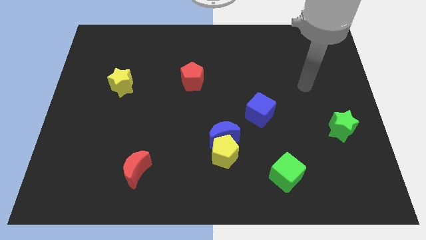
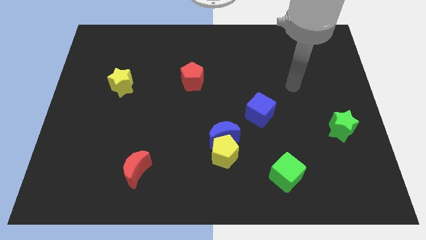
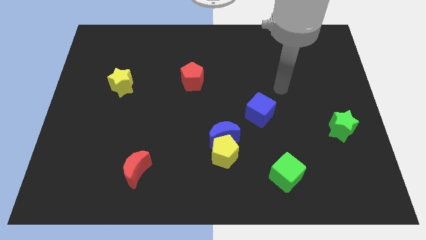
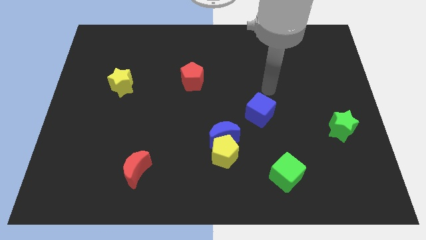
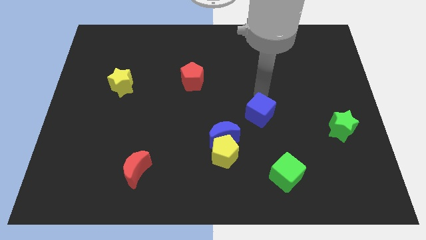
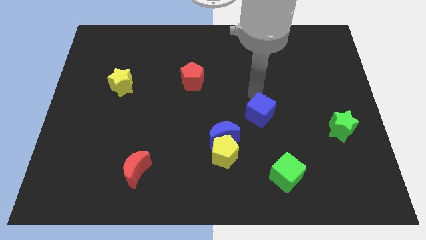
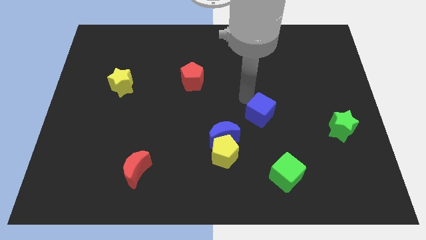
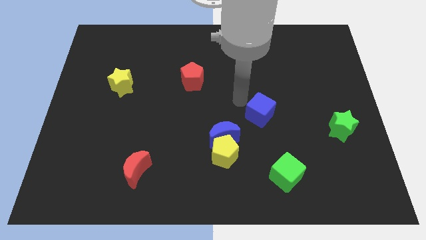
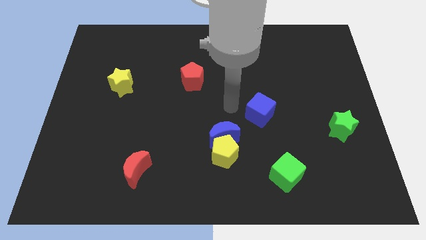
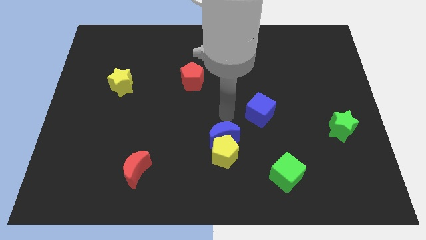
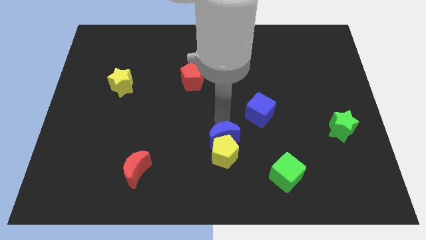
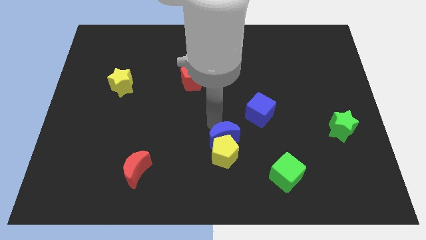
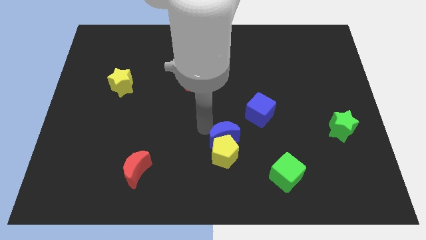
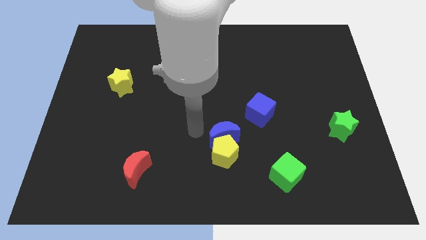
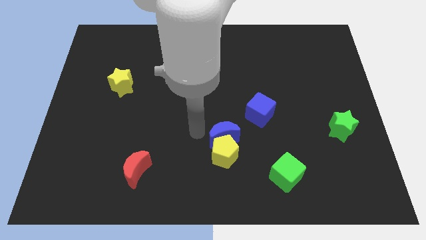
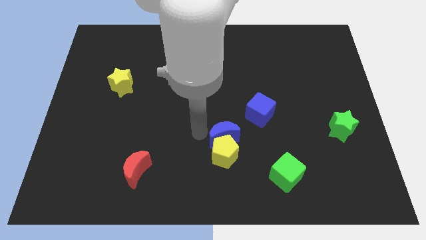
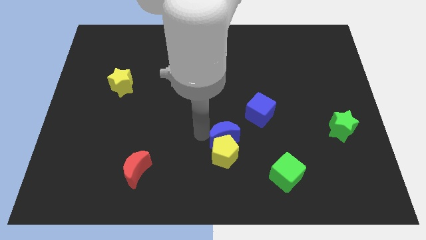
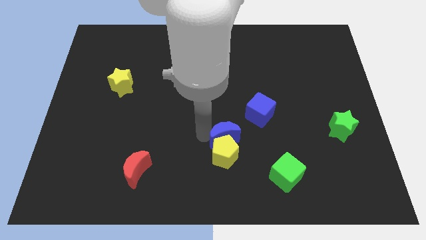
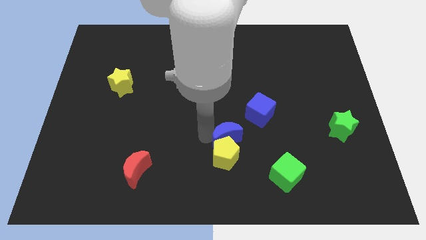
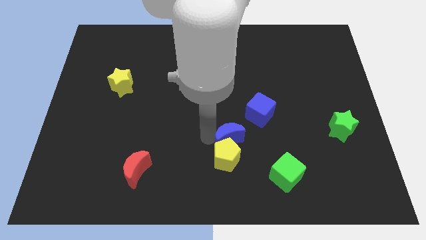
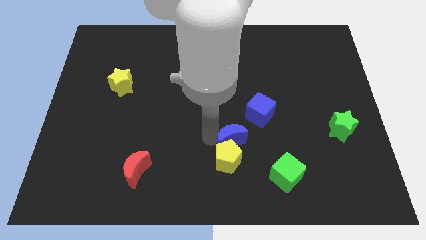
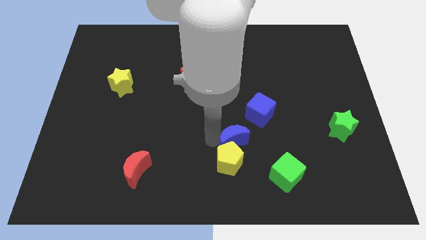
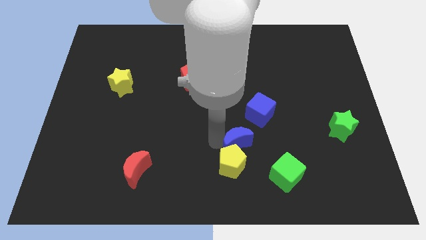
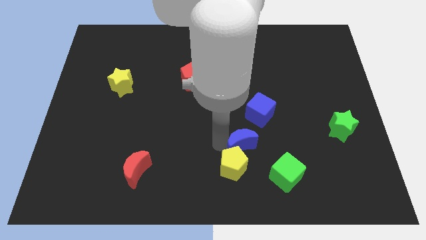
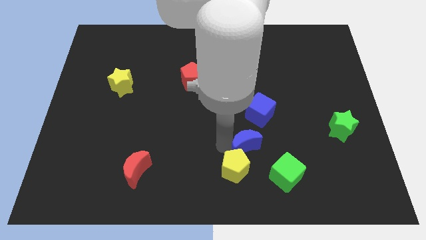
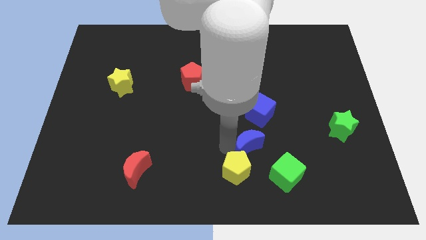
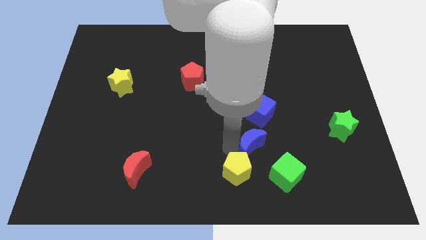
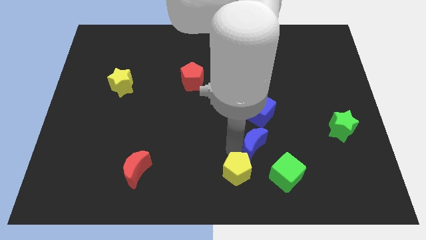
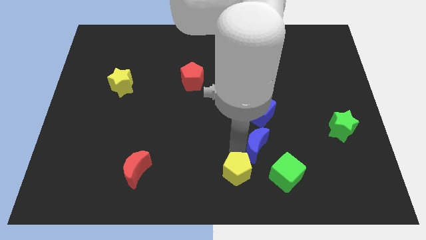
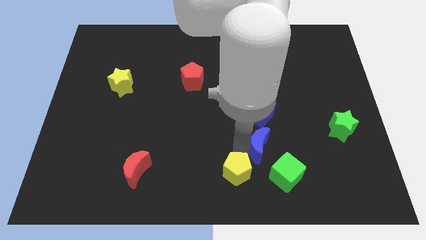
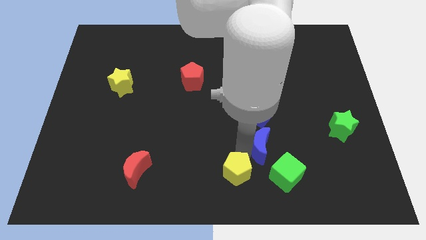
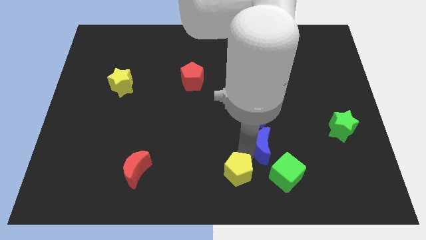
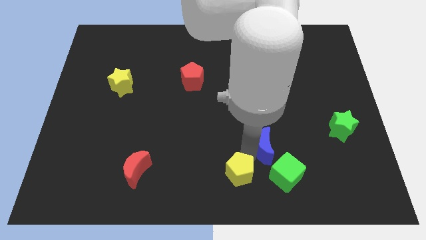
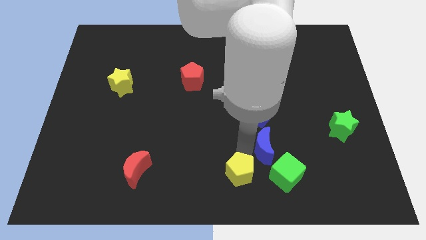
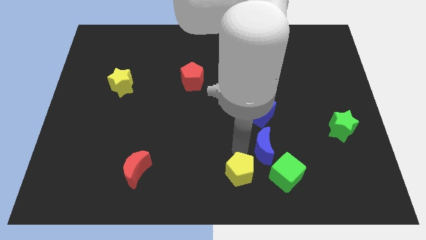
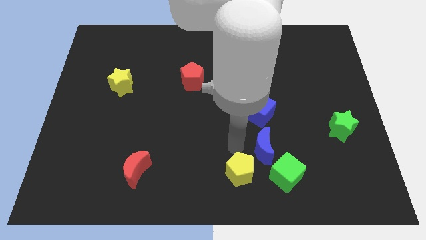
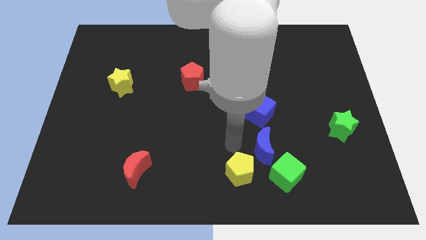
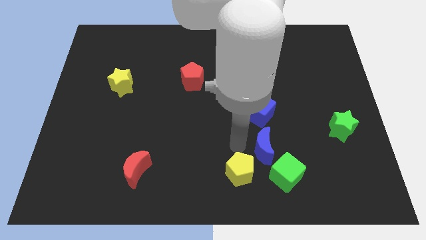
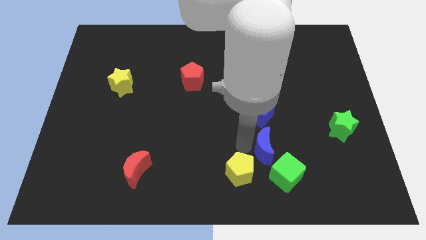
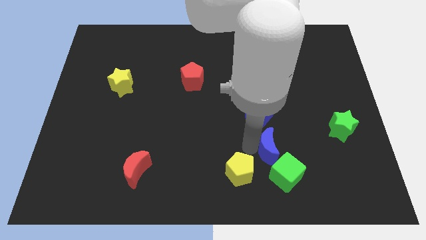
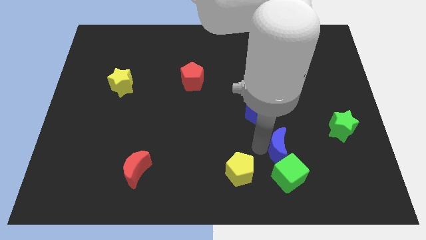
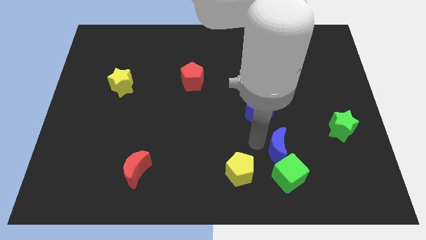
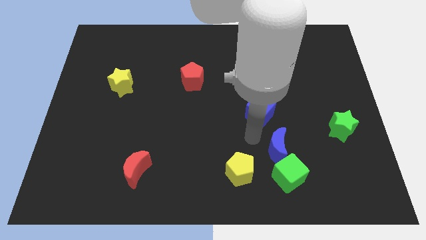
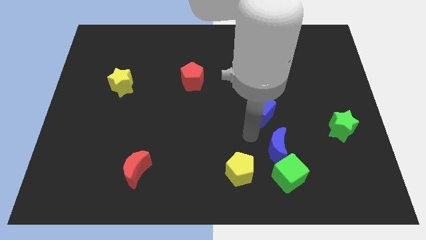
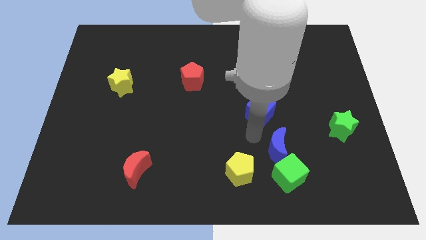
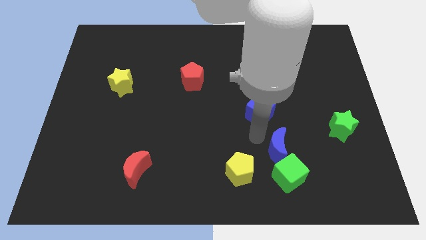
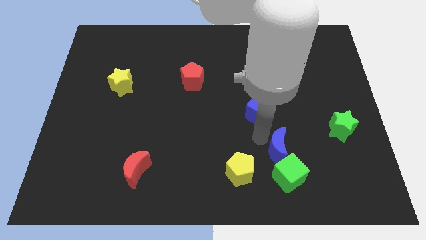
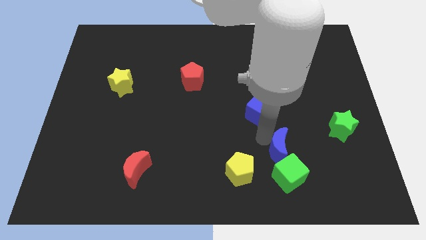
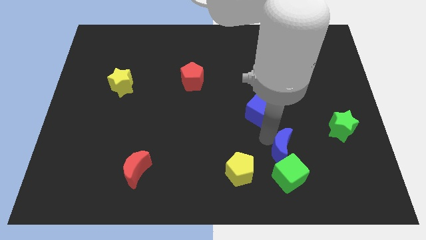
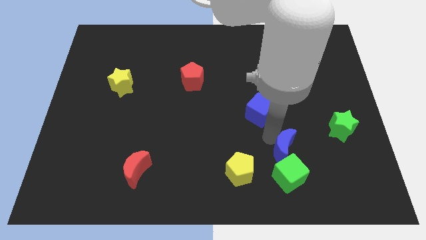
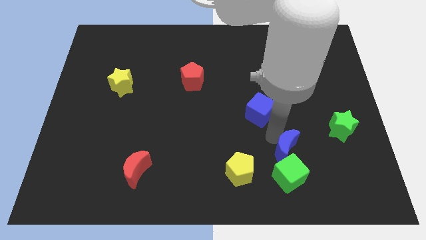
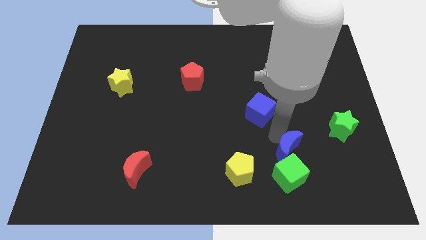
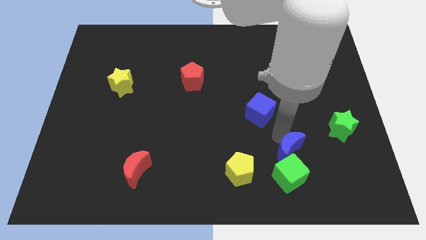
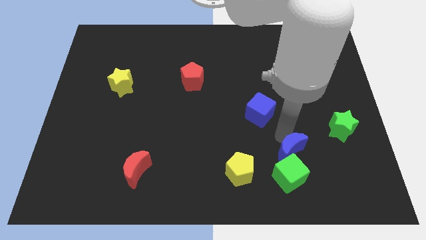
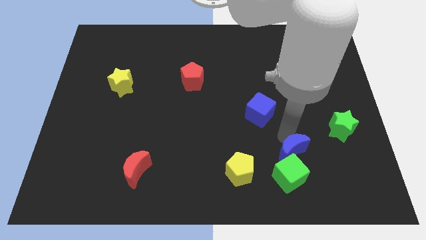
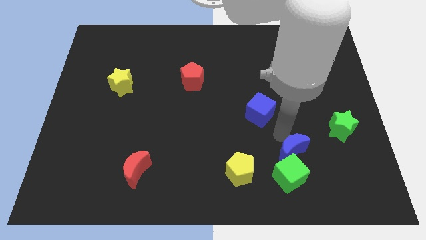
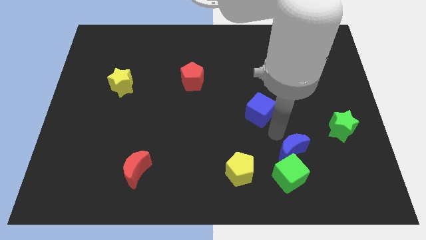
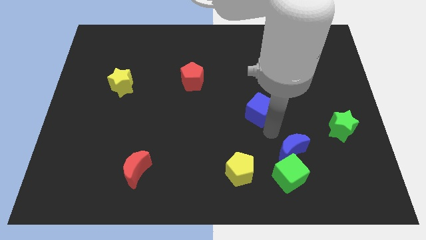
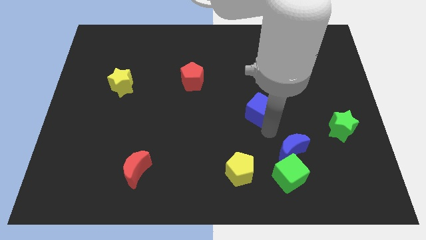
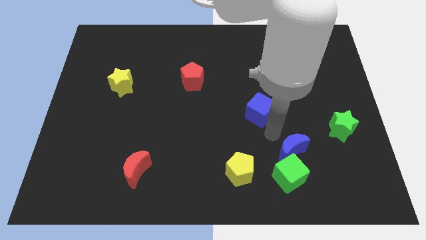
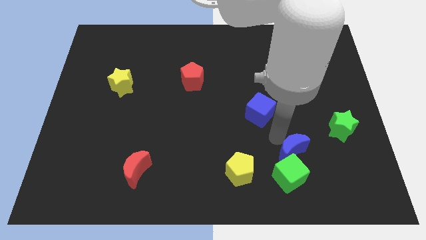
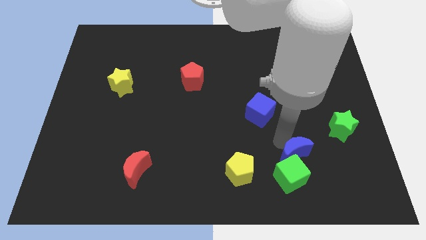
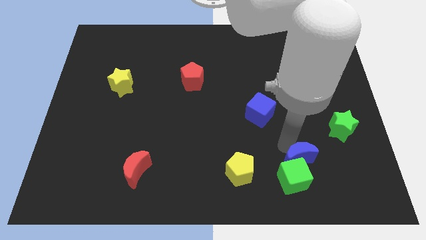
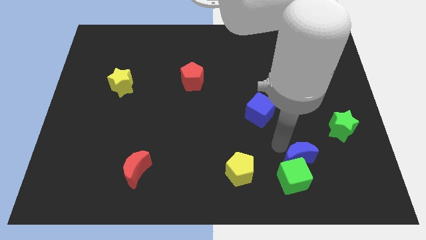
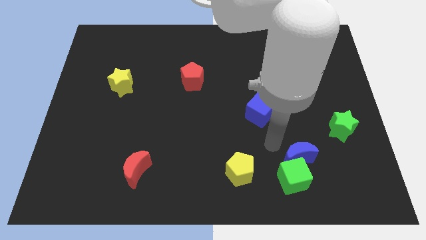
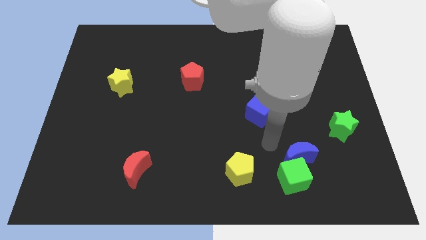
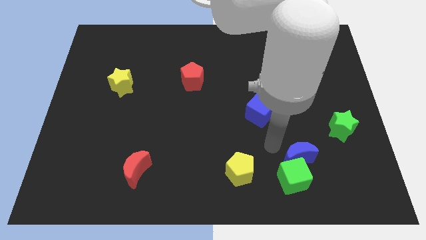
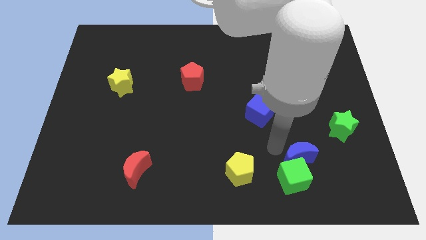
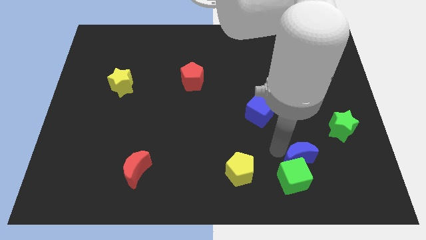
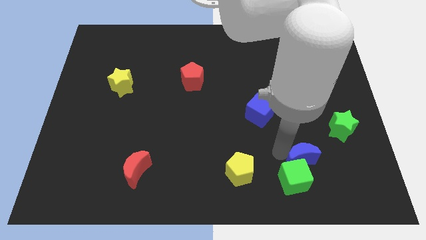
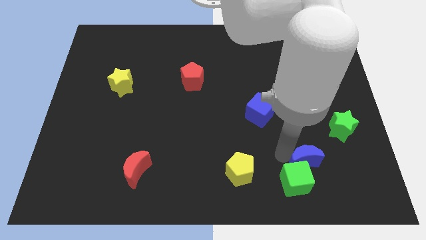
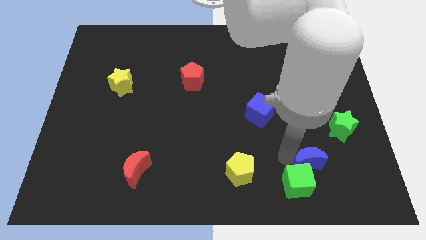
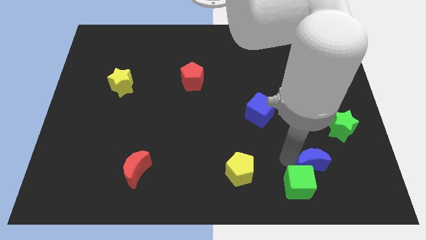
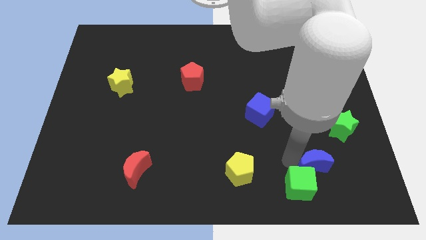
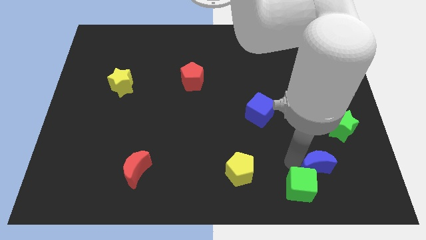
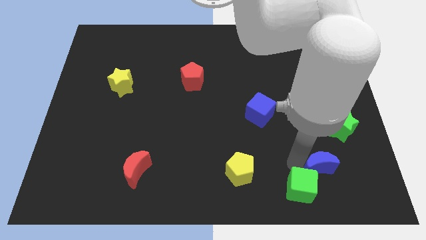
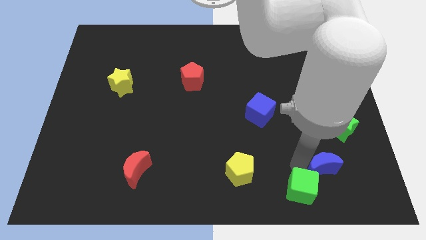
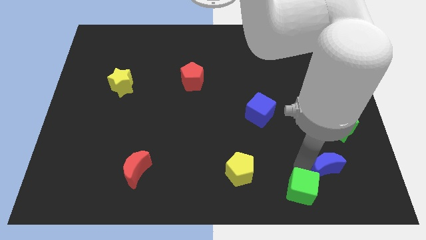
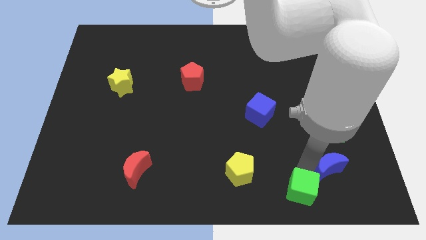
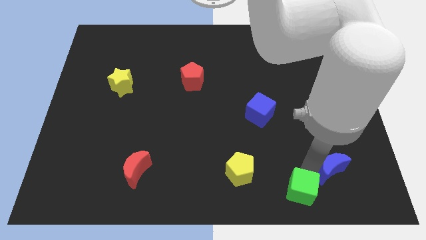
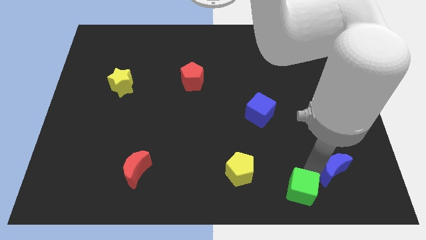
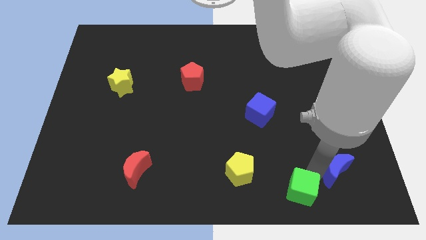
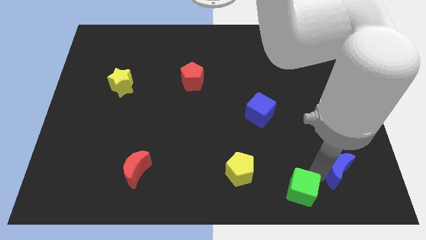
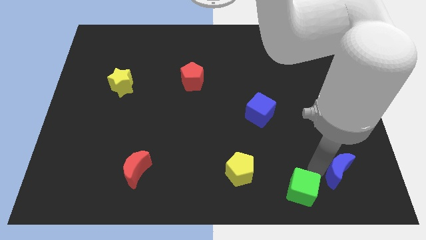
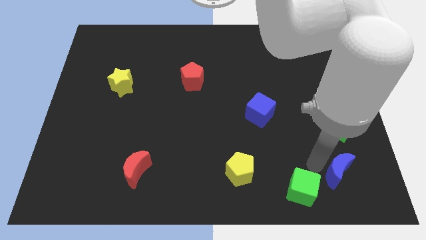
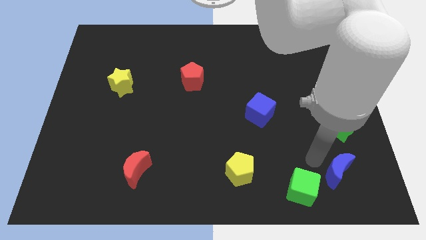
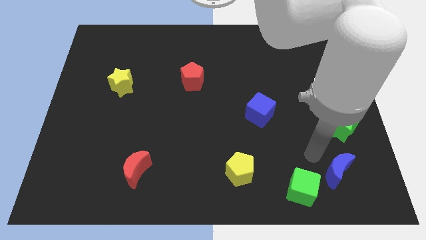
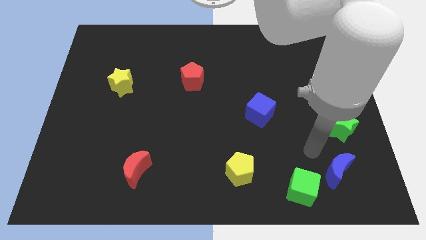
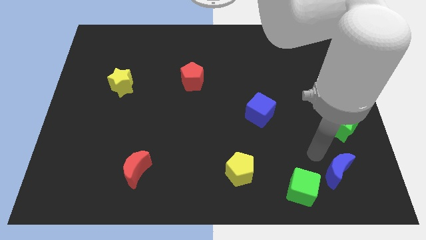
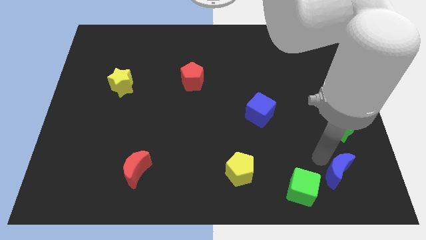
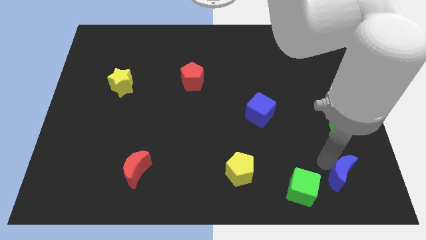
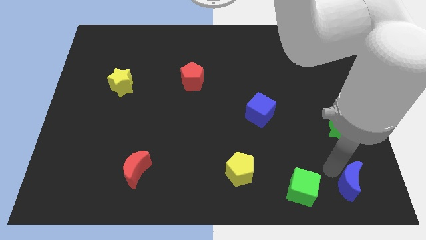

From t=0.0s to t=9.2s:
push the blue moon to the bottom right corner
